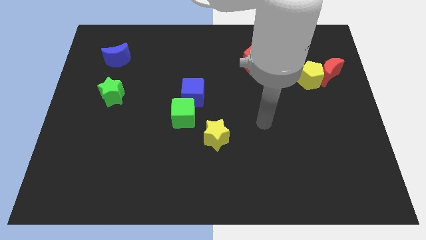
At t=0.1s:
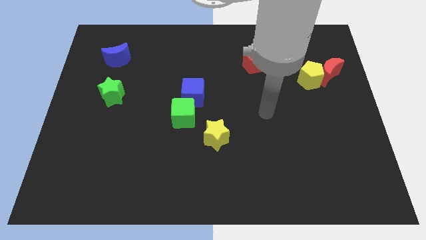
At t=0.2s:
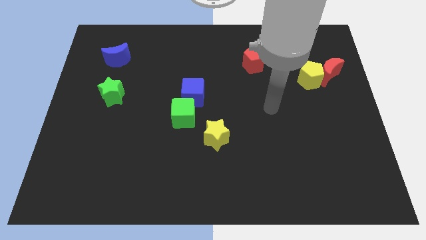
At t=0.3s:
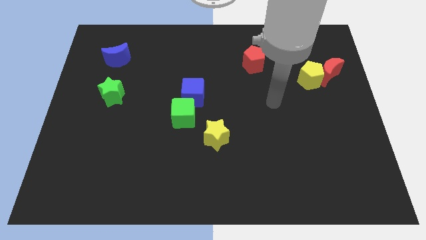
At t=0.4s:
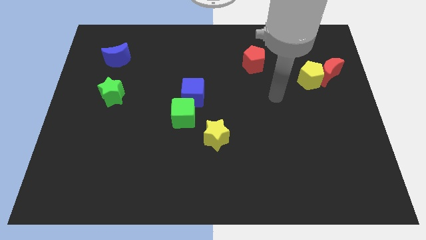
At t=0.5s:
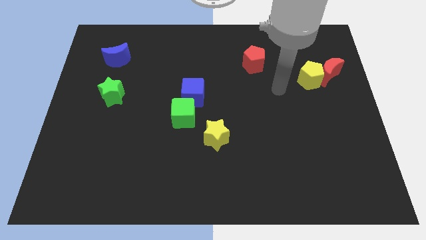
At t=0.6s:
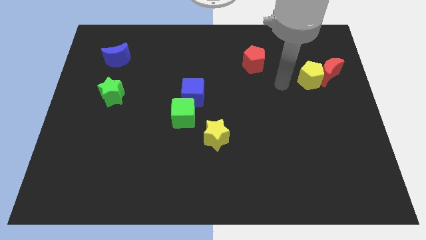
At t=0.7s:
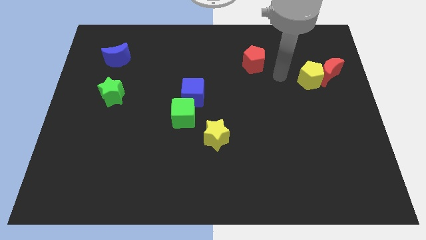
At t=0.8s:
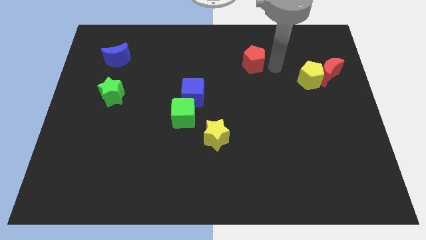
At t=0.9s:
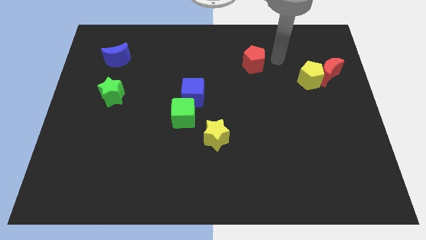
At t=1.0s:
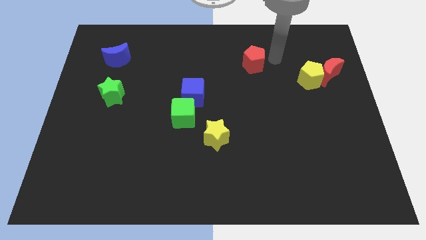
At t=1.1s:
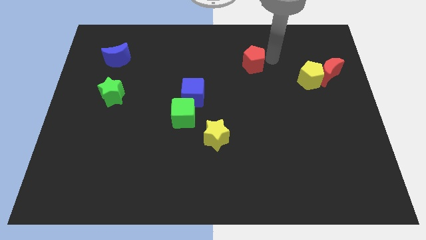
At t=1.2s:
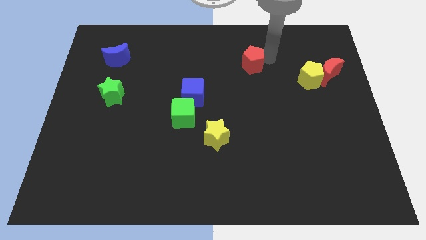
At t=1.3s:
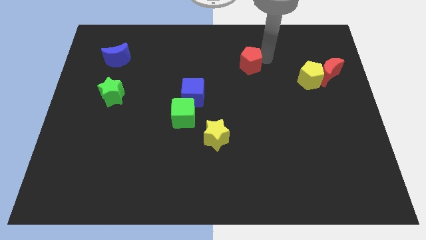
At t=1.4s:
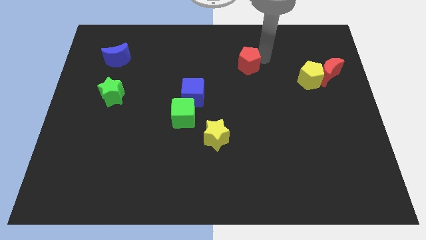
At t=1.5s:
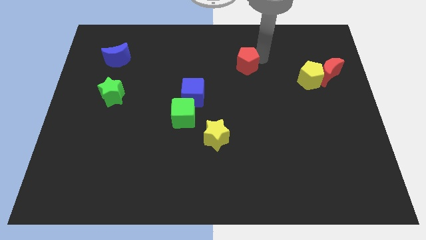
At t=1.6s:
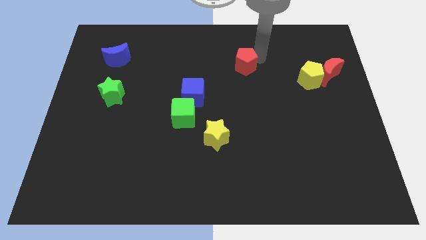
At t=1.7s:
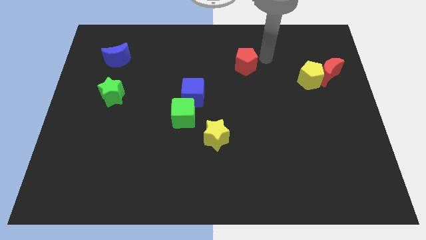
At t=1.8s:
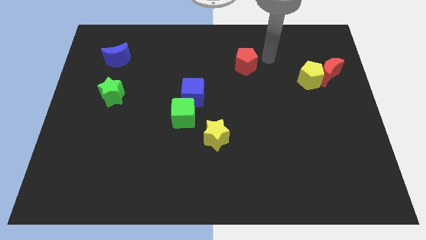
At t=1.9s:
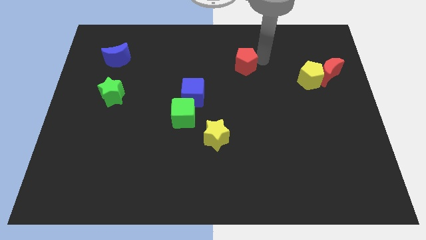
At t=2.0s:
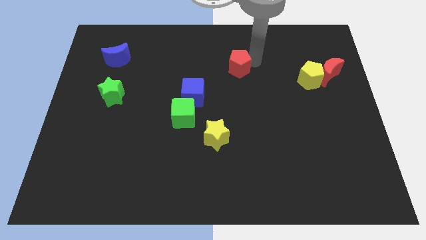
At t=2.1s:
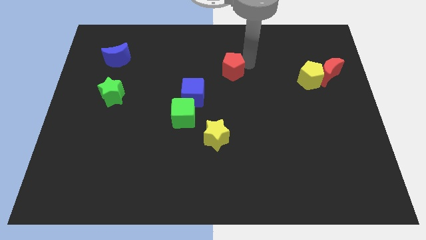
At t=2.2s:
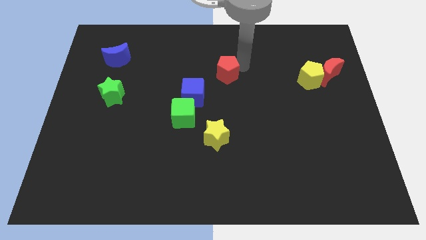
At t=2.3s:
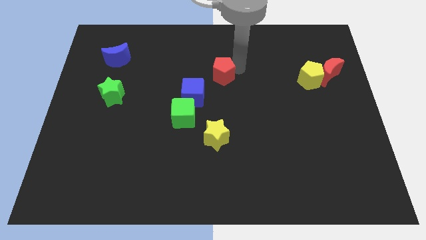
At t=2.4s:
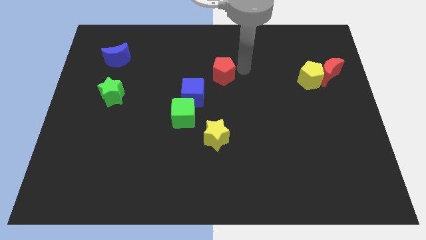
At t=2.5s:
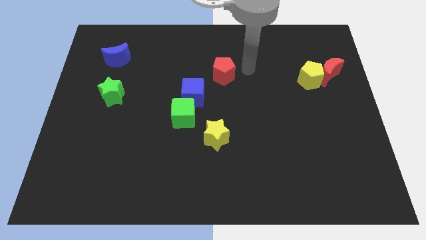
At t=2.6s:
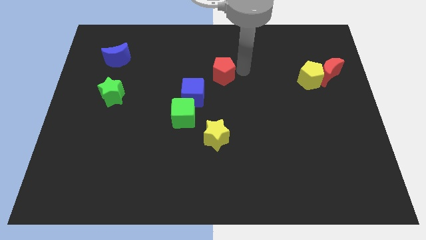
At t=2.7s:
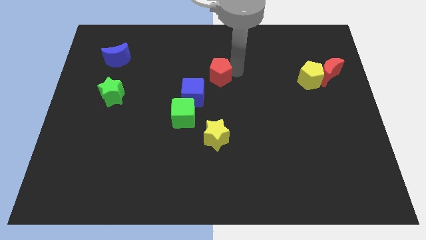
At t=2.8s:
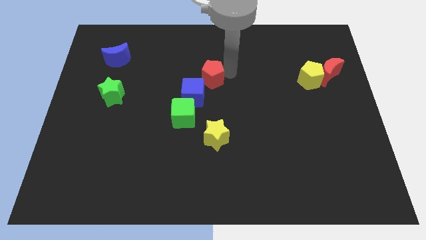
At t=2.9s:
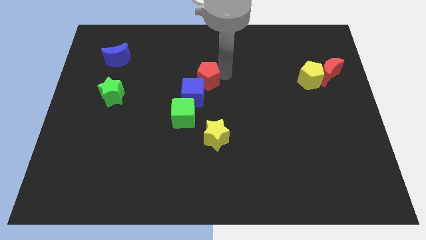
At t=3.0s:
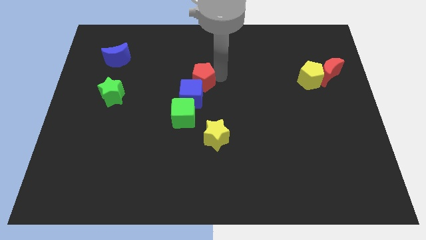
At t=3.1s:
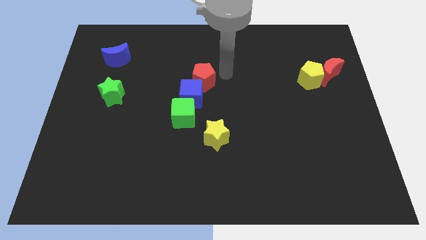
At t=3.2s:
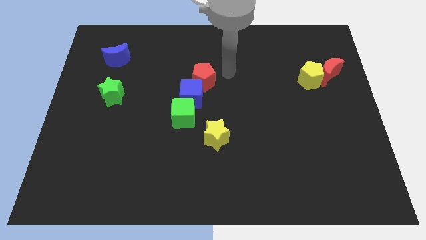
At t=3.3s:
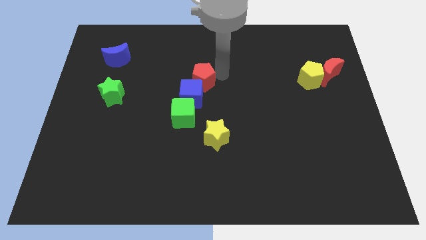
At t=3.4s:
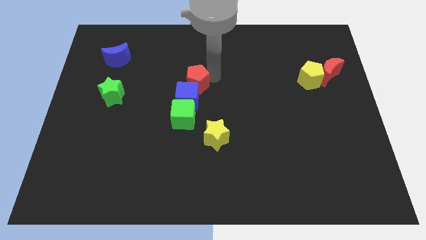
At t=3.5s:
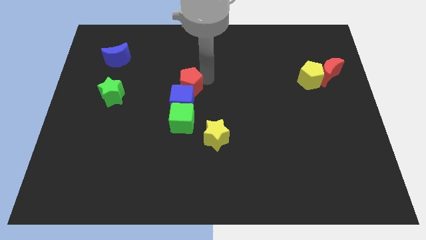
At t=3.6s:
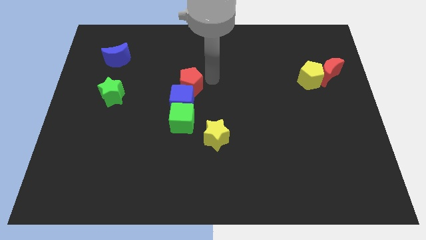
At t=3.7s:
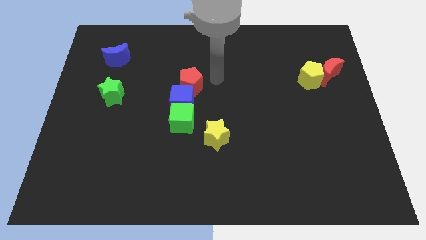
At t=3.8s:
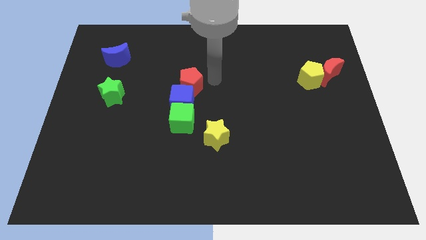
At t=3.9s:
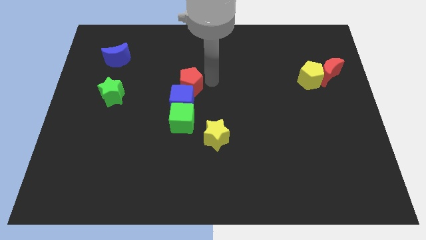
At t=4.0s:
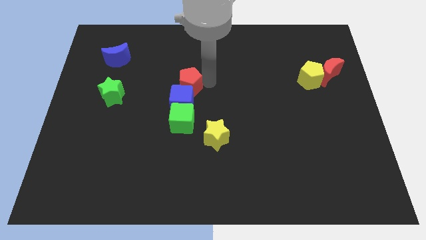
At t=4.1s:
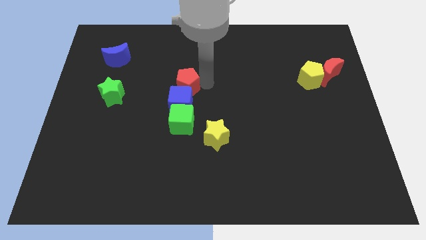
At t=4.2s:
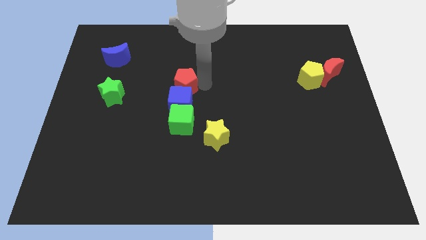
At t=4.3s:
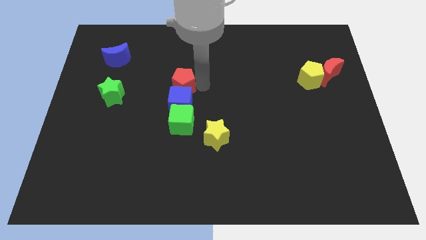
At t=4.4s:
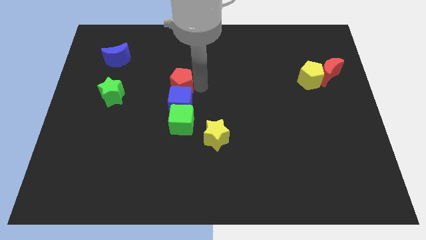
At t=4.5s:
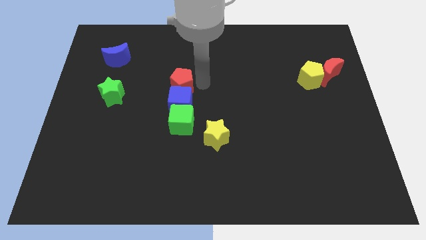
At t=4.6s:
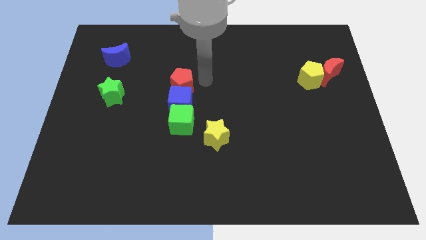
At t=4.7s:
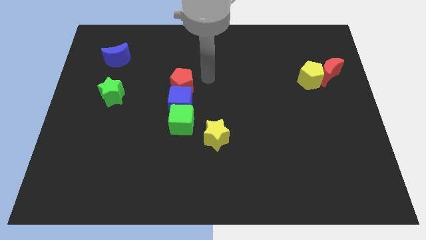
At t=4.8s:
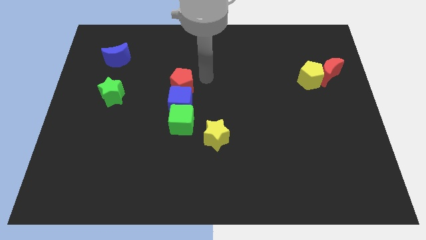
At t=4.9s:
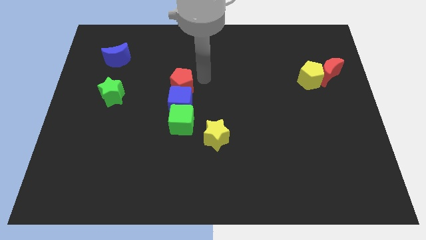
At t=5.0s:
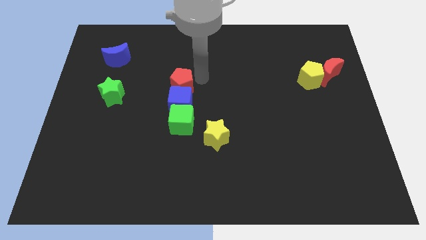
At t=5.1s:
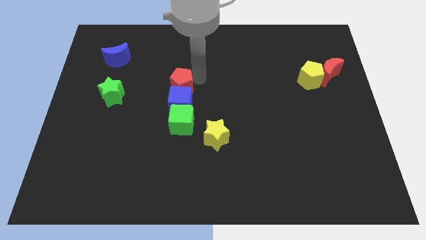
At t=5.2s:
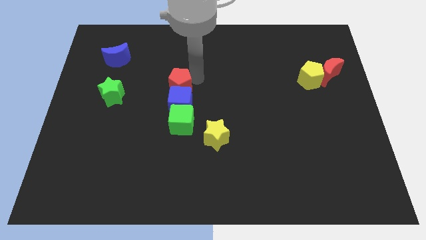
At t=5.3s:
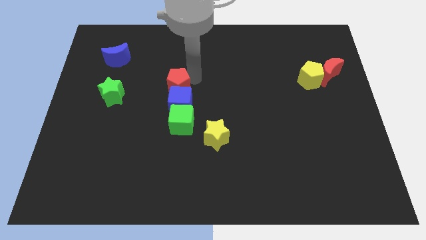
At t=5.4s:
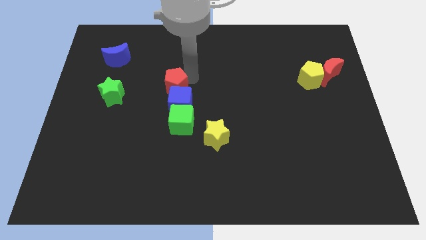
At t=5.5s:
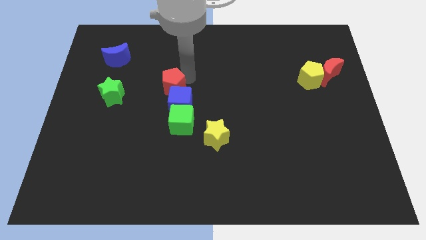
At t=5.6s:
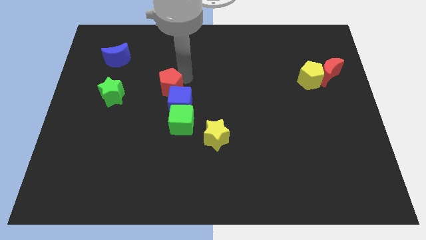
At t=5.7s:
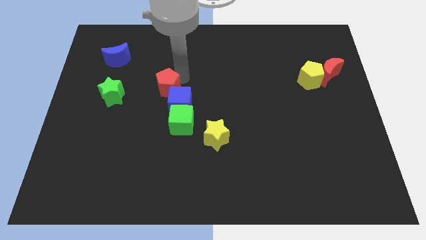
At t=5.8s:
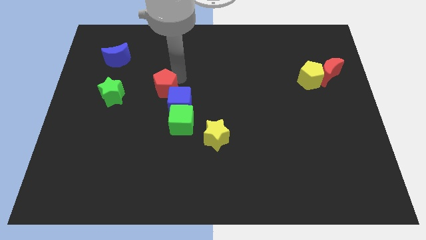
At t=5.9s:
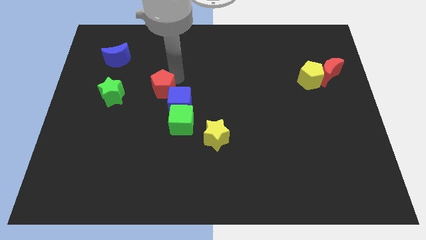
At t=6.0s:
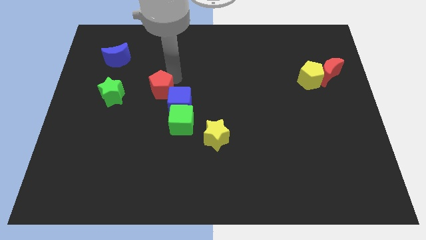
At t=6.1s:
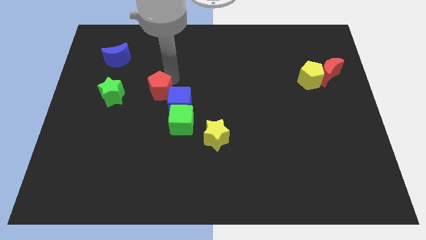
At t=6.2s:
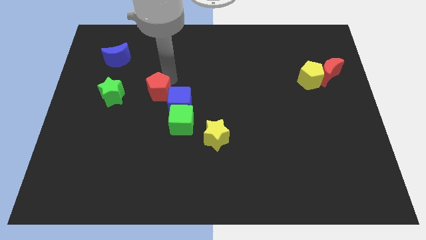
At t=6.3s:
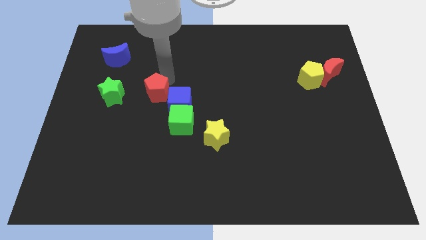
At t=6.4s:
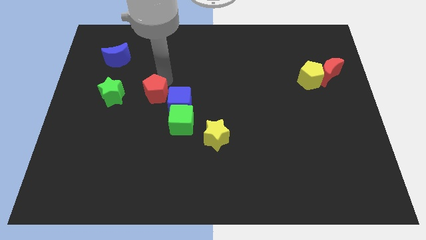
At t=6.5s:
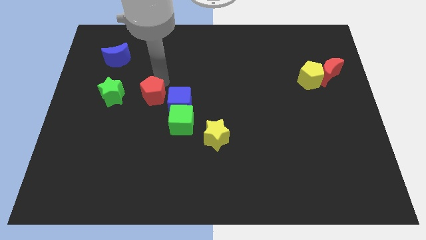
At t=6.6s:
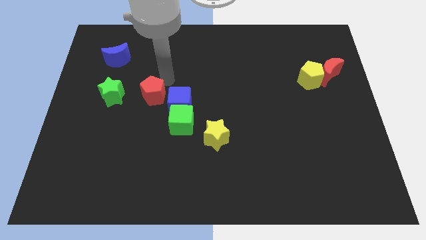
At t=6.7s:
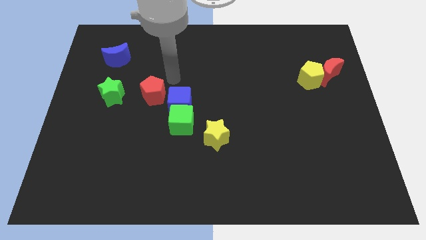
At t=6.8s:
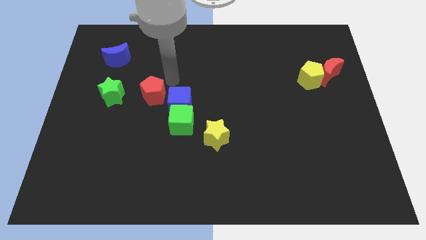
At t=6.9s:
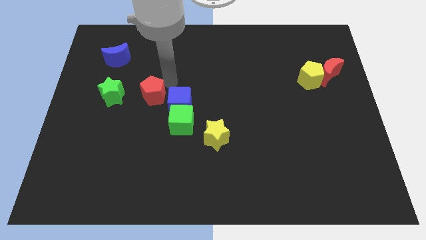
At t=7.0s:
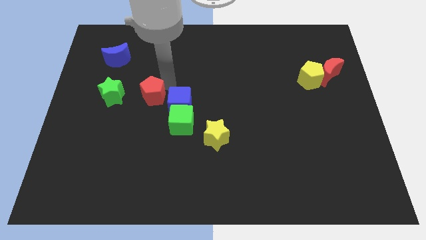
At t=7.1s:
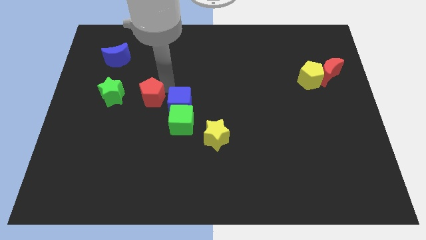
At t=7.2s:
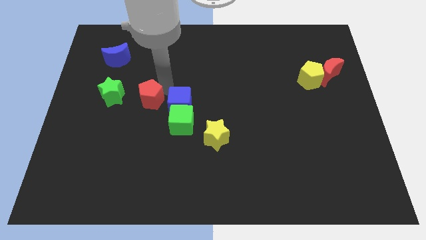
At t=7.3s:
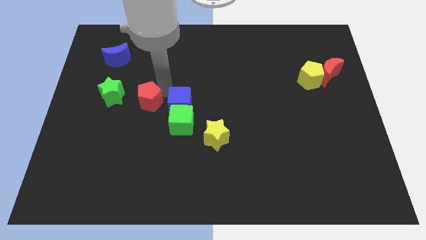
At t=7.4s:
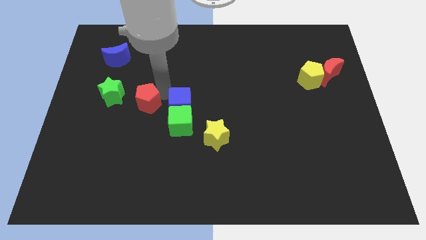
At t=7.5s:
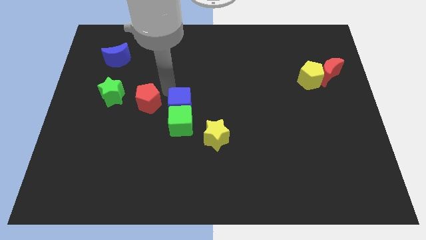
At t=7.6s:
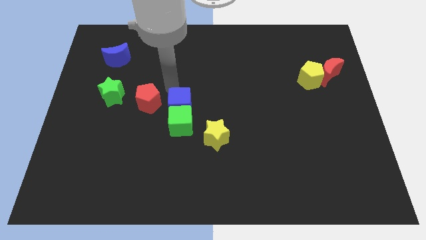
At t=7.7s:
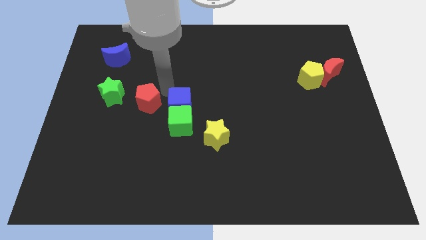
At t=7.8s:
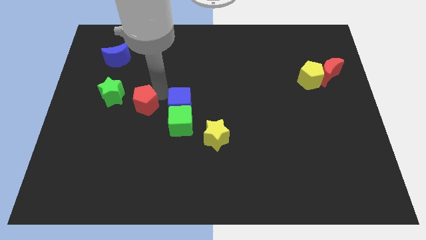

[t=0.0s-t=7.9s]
push the red pentagon to the bottom right of the green star

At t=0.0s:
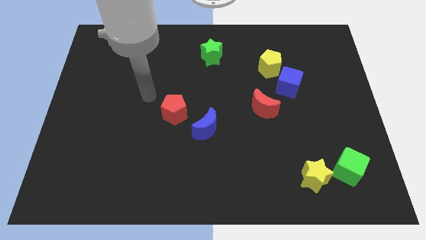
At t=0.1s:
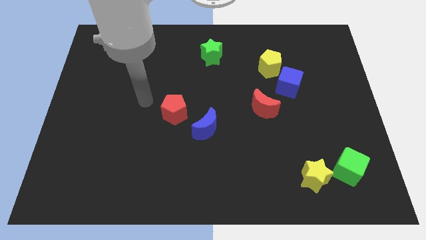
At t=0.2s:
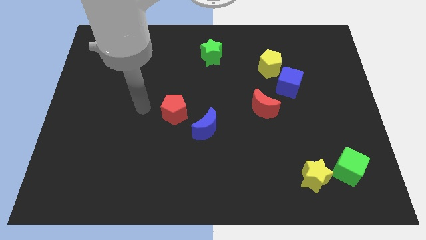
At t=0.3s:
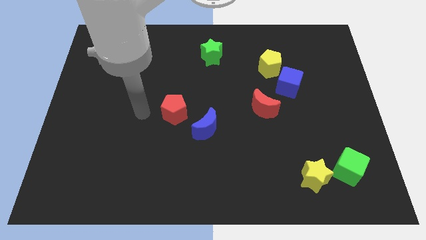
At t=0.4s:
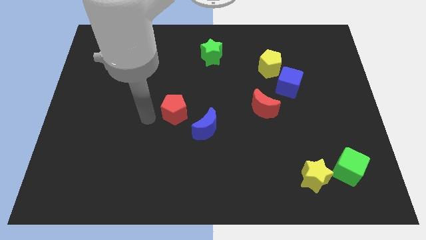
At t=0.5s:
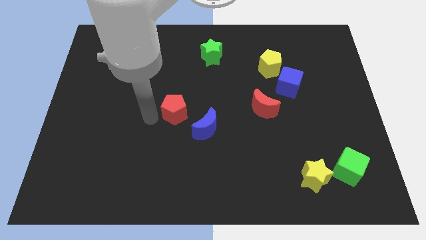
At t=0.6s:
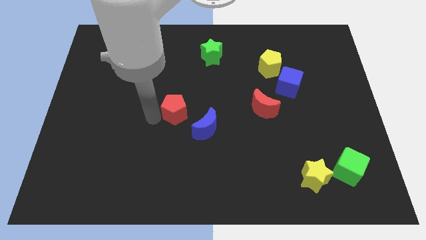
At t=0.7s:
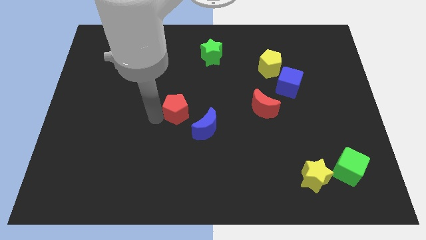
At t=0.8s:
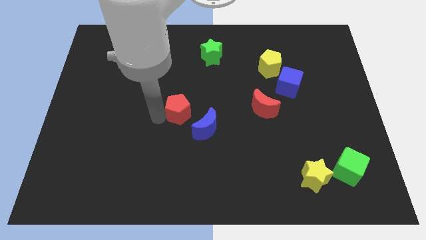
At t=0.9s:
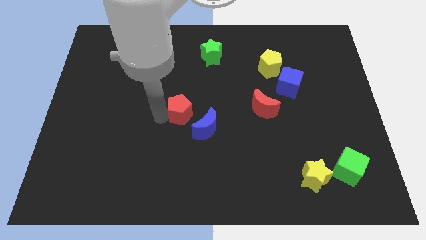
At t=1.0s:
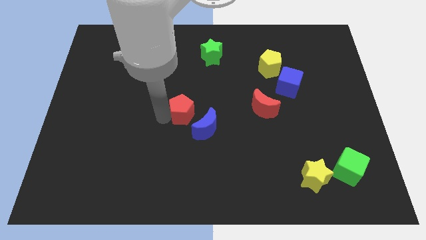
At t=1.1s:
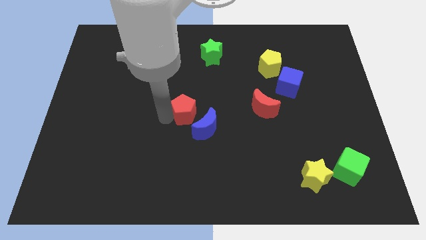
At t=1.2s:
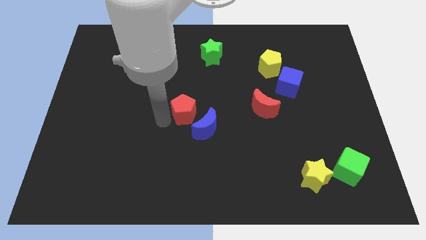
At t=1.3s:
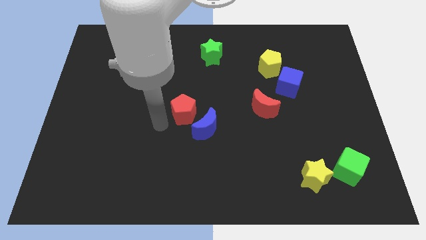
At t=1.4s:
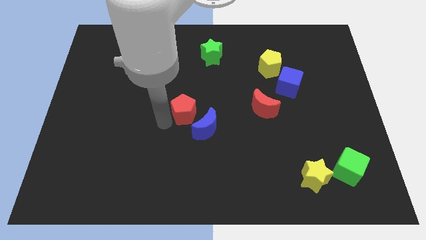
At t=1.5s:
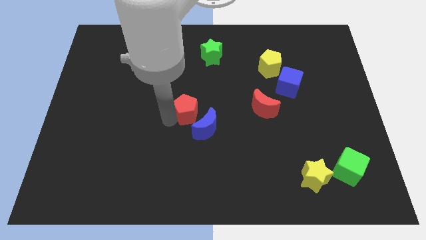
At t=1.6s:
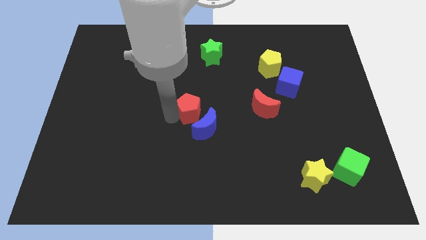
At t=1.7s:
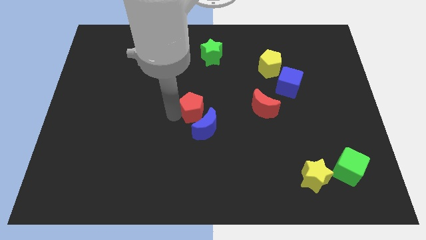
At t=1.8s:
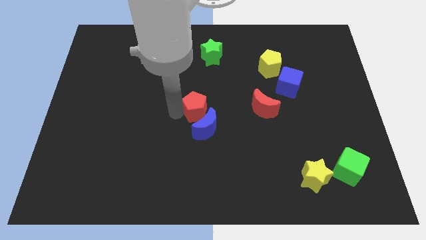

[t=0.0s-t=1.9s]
put the red pentagon left of the red moon
